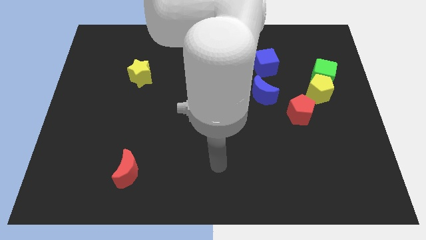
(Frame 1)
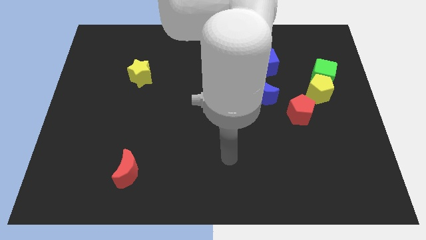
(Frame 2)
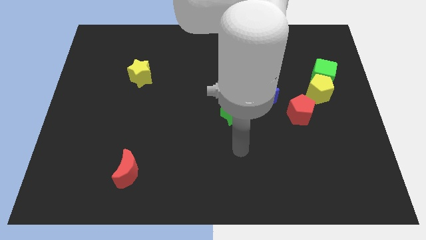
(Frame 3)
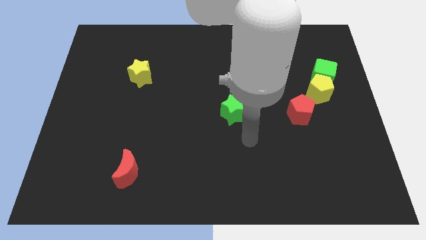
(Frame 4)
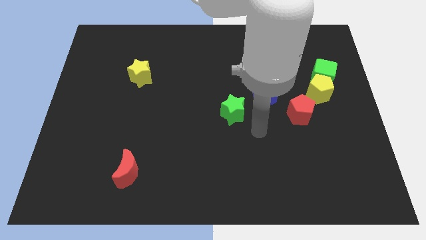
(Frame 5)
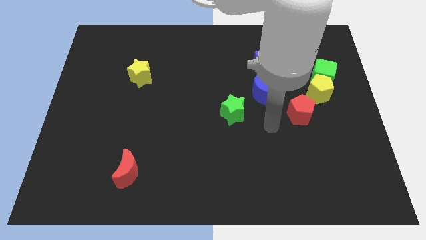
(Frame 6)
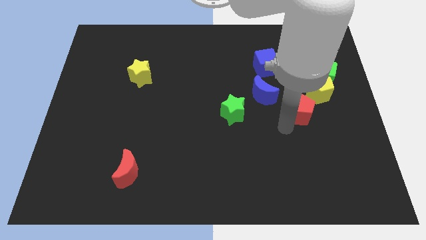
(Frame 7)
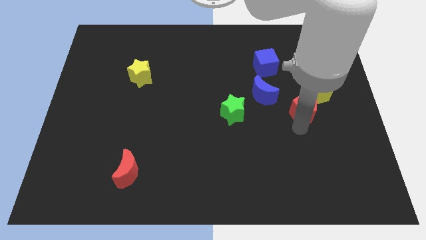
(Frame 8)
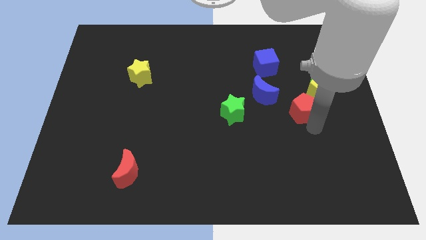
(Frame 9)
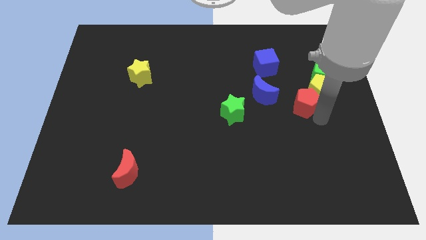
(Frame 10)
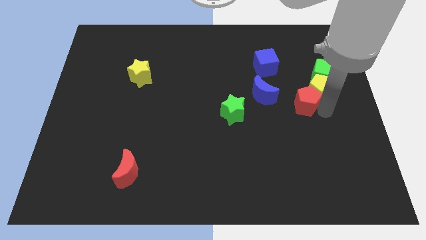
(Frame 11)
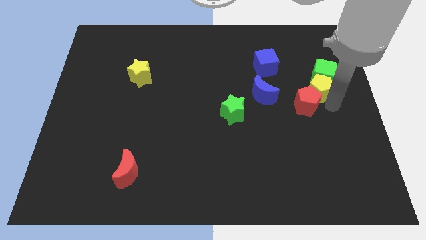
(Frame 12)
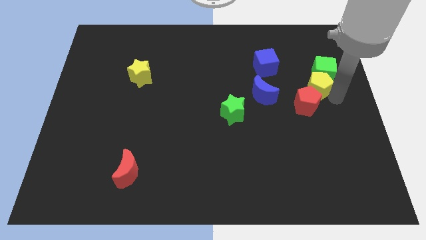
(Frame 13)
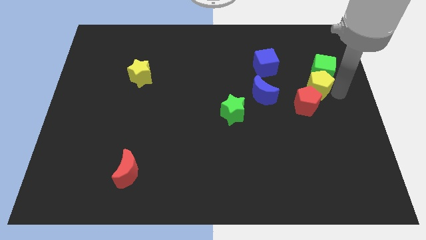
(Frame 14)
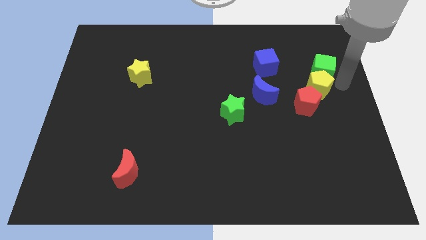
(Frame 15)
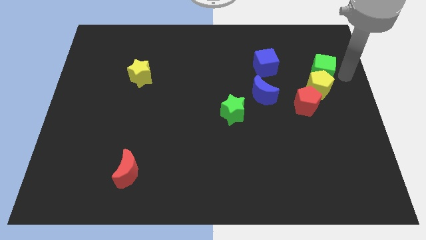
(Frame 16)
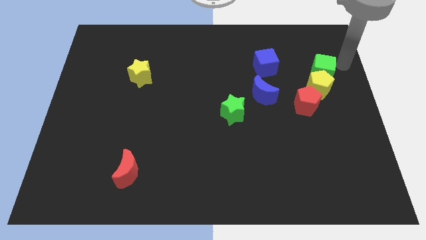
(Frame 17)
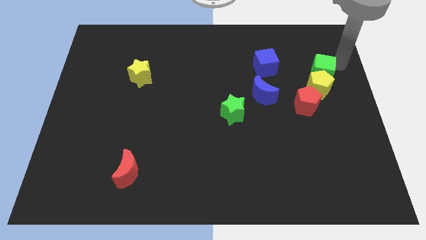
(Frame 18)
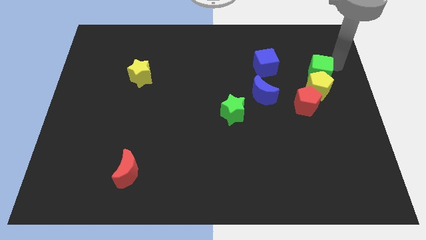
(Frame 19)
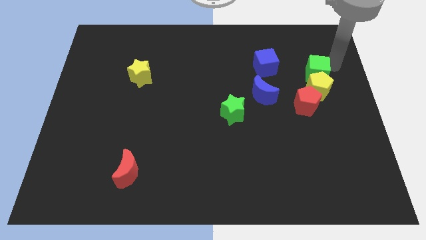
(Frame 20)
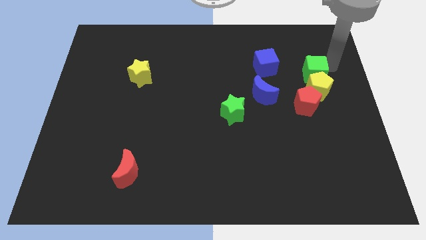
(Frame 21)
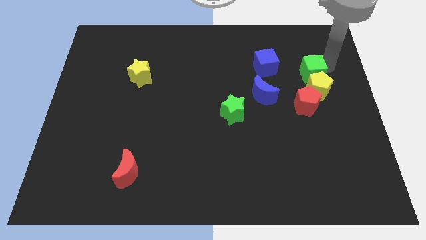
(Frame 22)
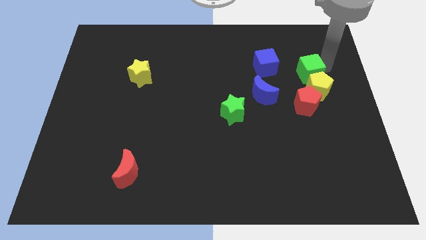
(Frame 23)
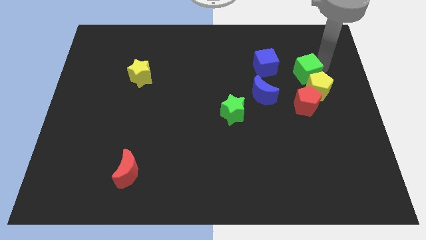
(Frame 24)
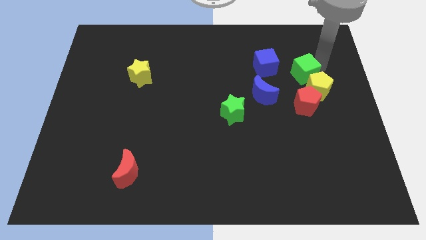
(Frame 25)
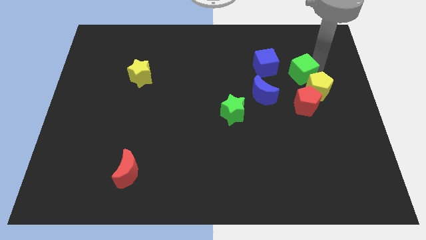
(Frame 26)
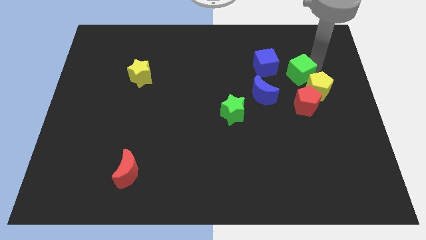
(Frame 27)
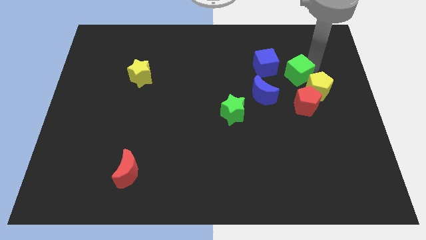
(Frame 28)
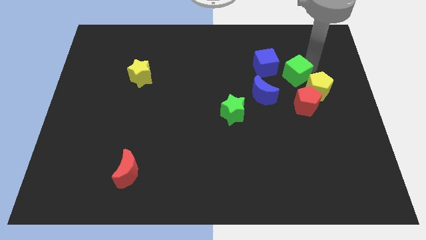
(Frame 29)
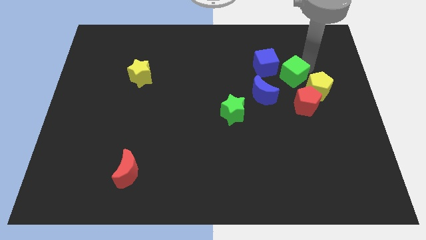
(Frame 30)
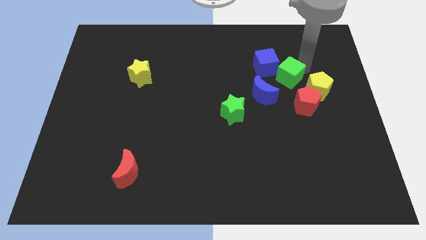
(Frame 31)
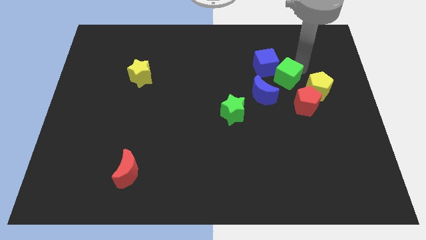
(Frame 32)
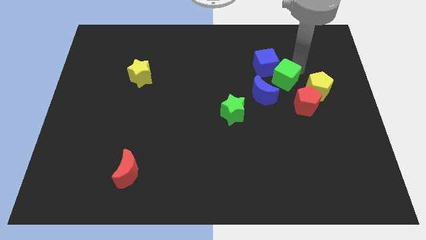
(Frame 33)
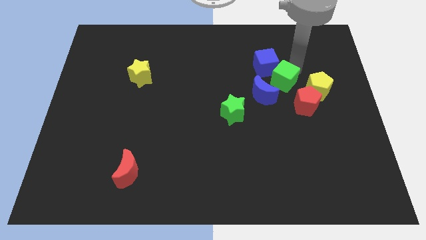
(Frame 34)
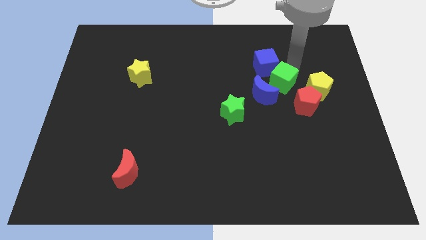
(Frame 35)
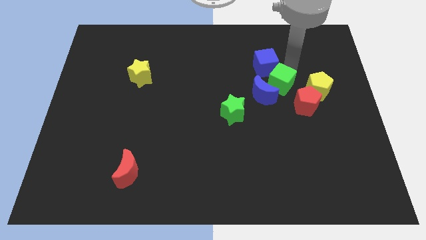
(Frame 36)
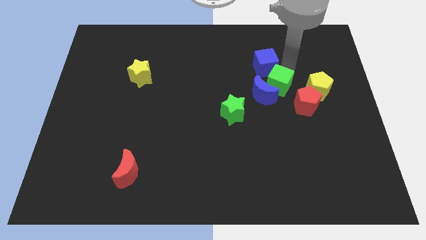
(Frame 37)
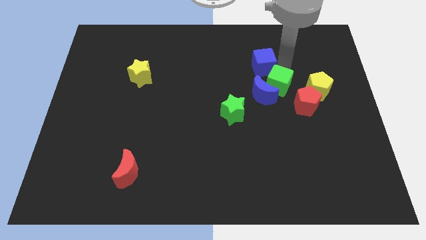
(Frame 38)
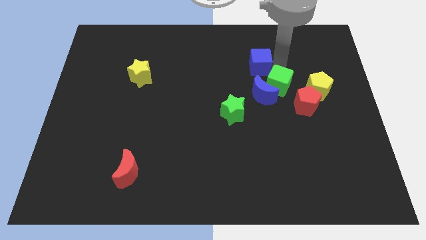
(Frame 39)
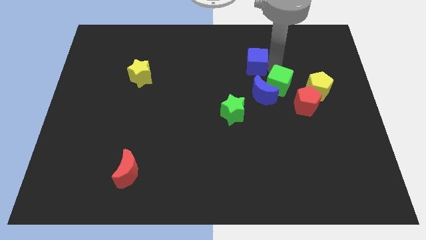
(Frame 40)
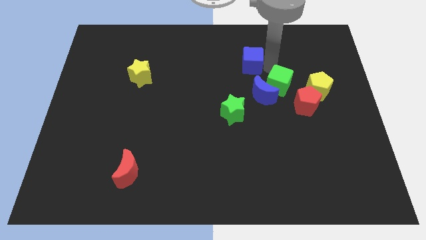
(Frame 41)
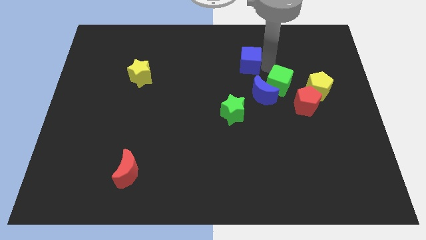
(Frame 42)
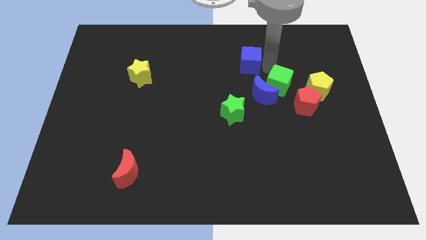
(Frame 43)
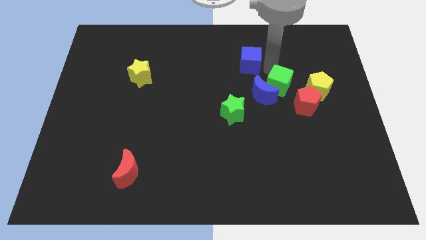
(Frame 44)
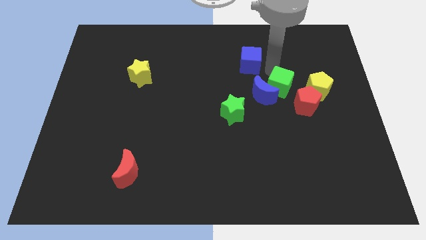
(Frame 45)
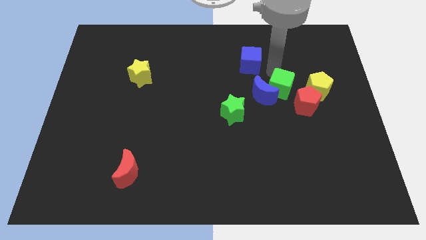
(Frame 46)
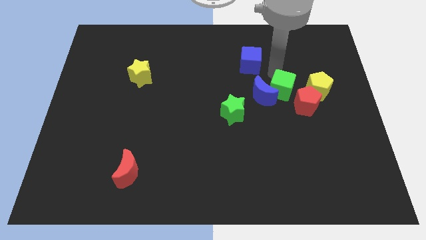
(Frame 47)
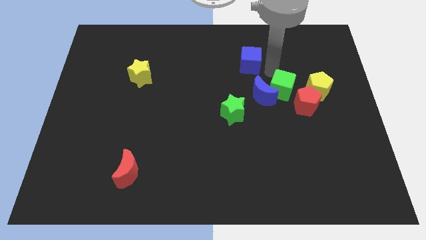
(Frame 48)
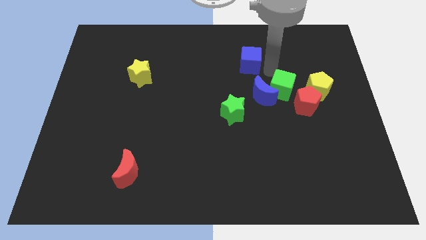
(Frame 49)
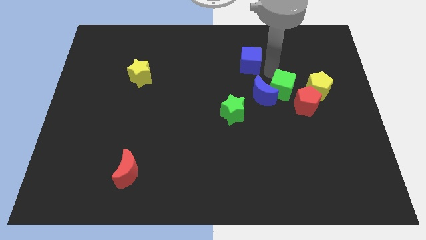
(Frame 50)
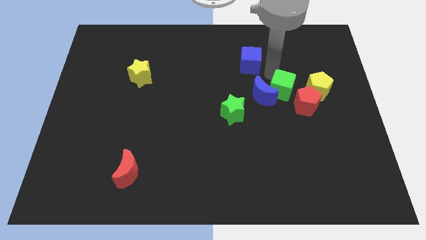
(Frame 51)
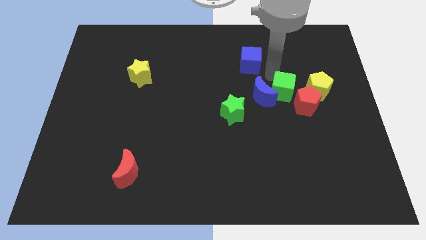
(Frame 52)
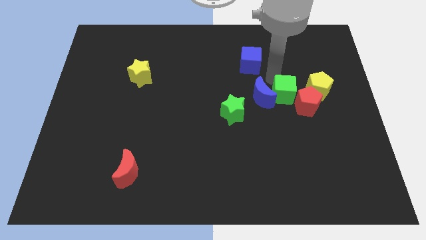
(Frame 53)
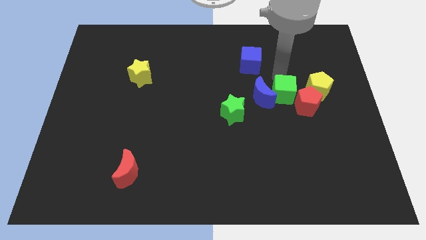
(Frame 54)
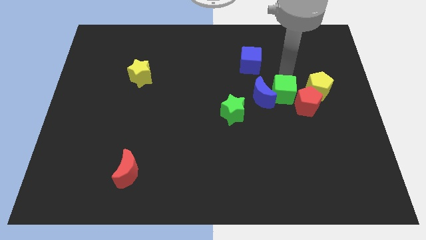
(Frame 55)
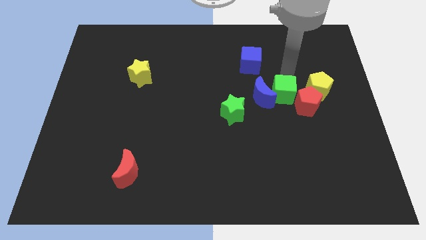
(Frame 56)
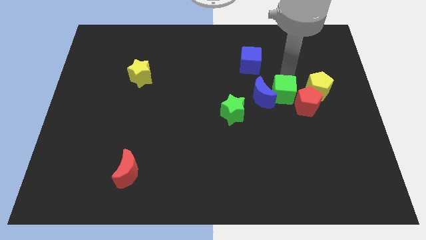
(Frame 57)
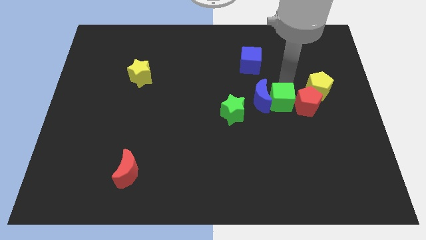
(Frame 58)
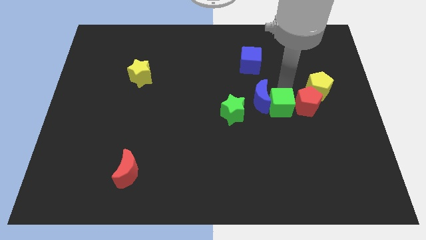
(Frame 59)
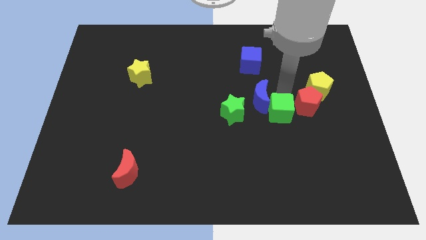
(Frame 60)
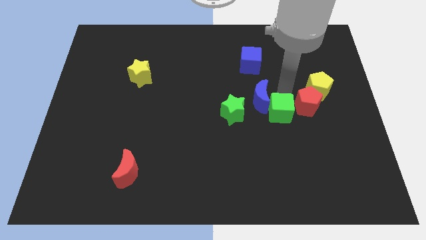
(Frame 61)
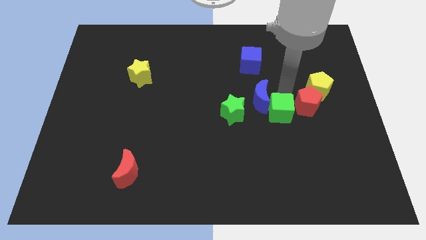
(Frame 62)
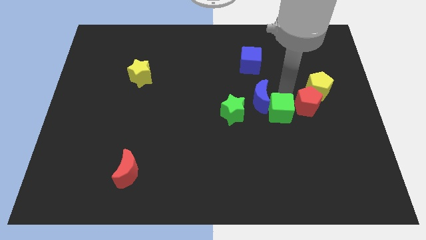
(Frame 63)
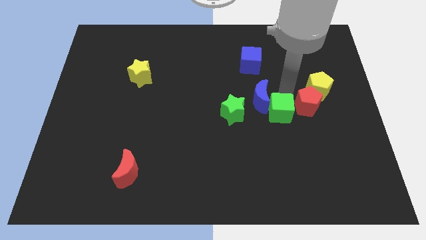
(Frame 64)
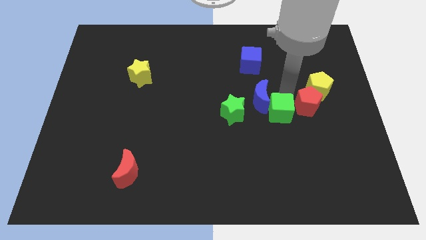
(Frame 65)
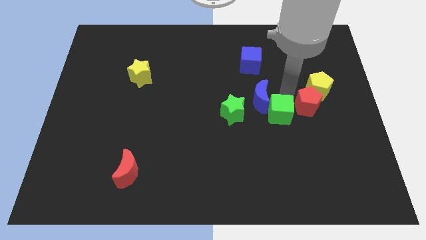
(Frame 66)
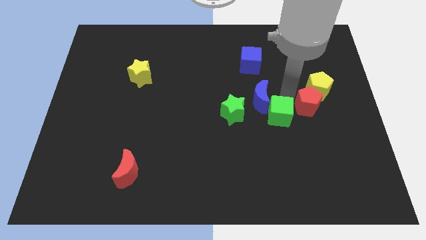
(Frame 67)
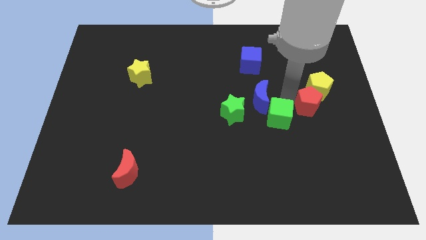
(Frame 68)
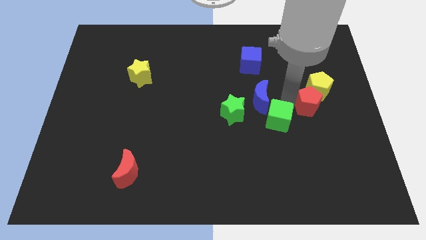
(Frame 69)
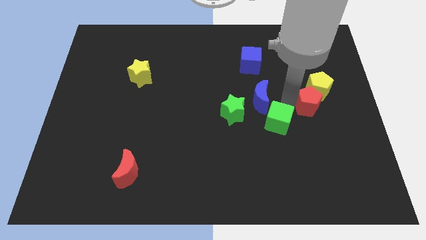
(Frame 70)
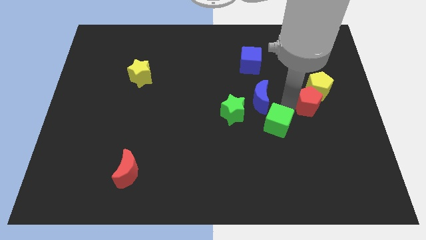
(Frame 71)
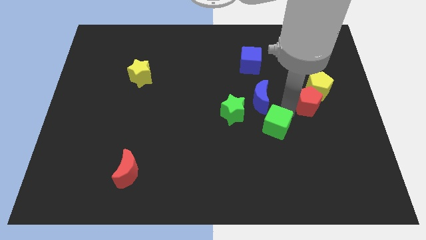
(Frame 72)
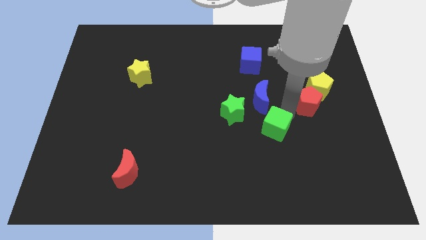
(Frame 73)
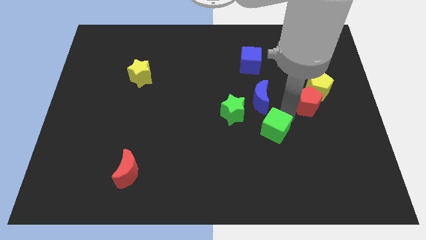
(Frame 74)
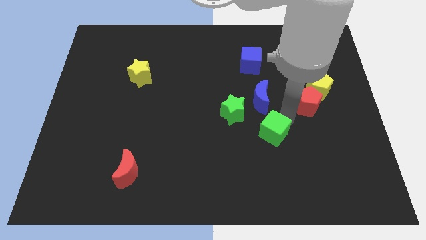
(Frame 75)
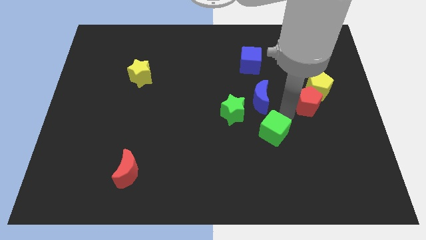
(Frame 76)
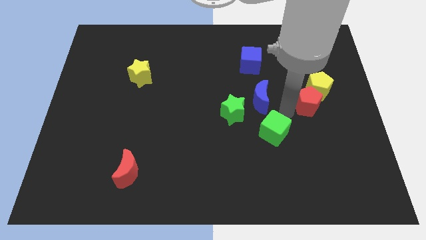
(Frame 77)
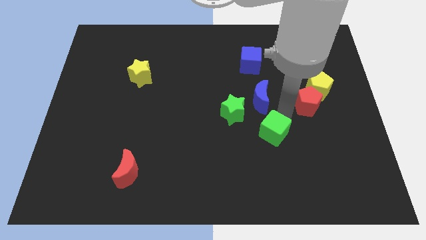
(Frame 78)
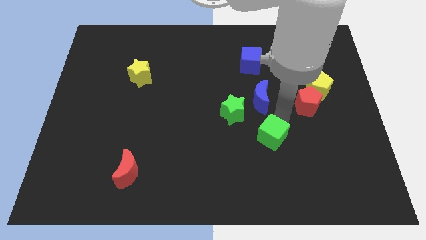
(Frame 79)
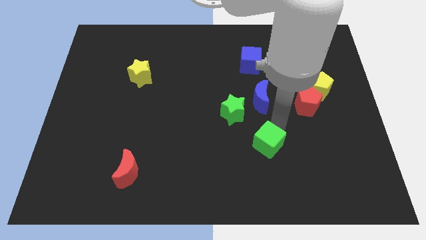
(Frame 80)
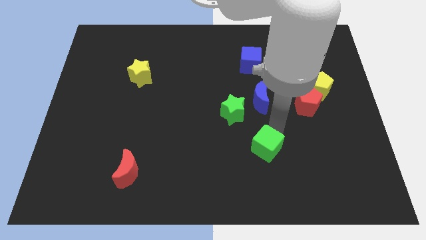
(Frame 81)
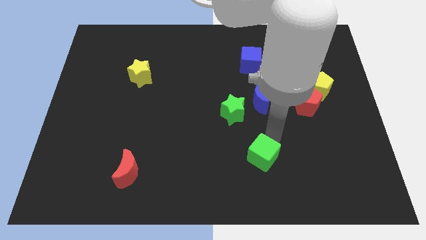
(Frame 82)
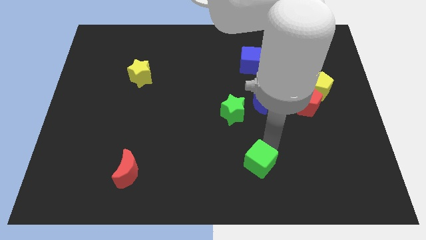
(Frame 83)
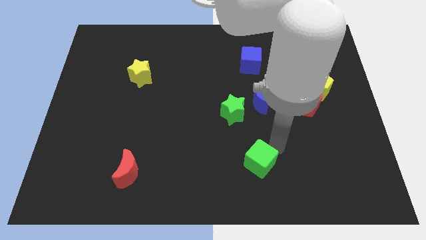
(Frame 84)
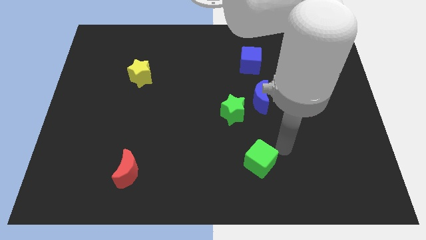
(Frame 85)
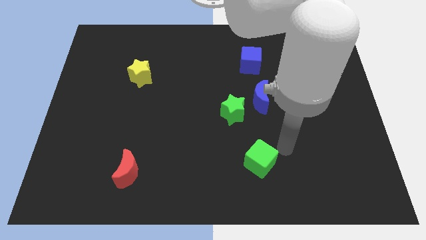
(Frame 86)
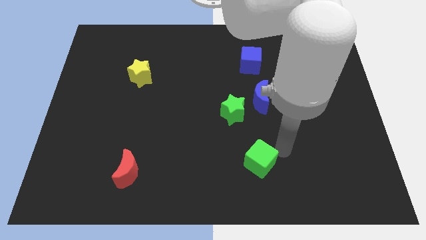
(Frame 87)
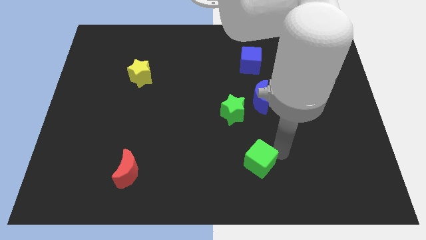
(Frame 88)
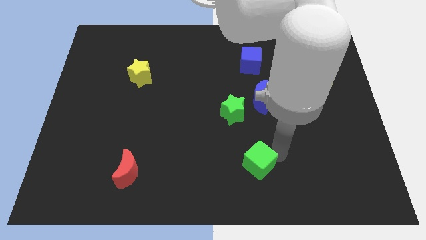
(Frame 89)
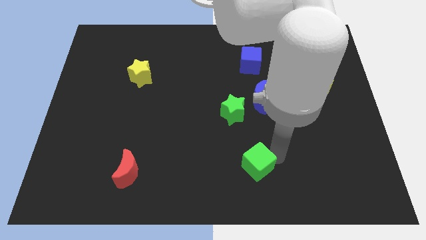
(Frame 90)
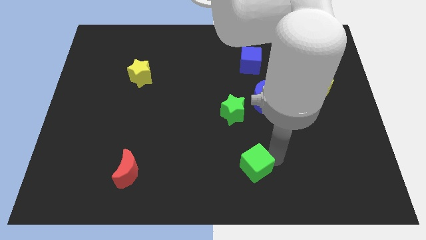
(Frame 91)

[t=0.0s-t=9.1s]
push the green cube to the bottom
